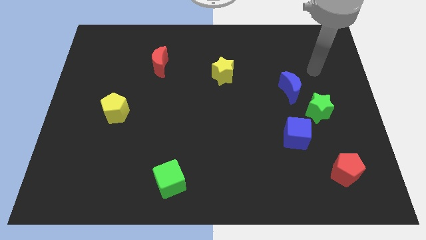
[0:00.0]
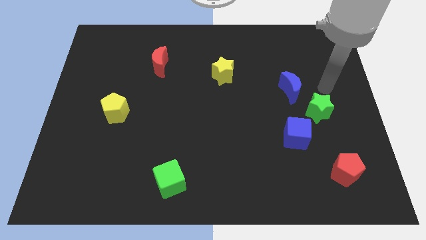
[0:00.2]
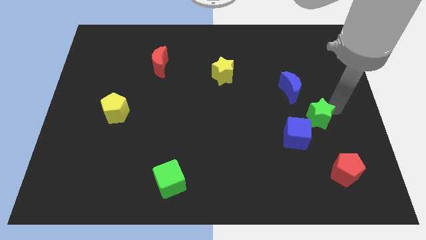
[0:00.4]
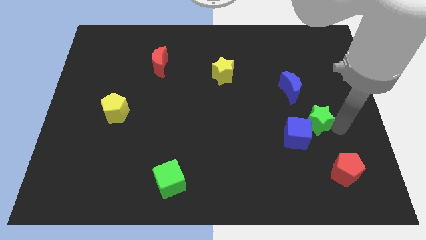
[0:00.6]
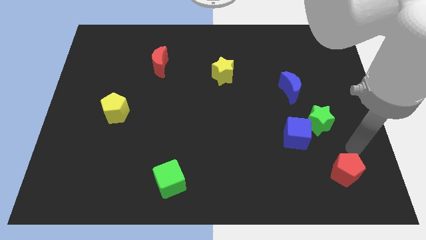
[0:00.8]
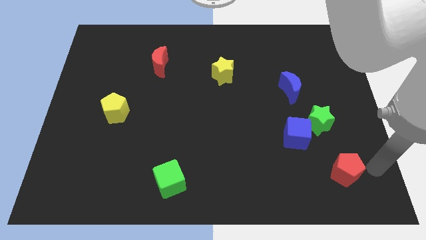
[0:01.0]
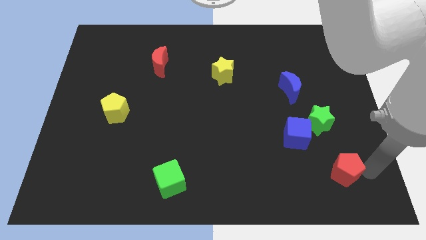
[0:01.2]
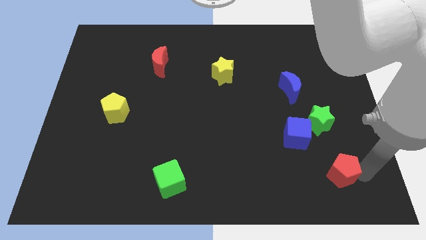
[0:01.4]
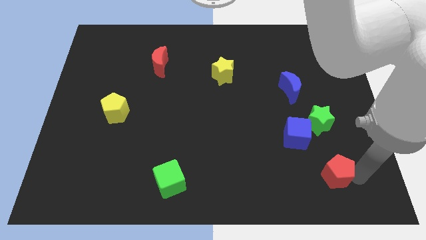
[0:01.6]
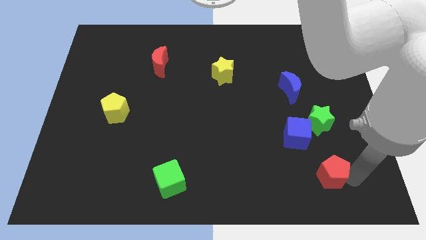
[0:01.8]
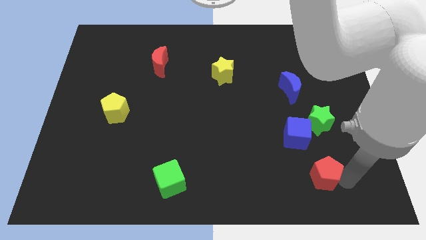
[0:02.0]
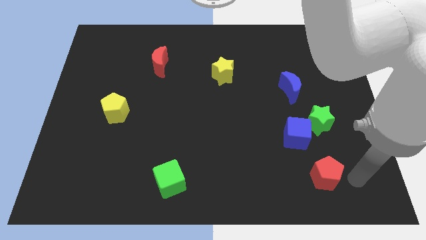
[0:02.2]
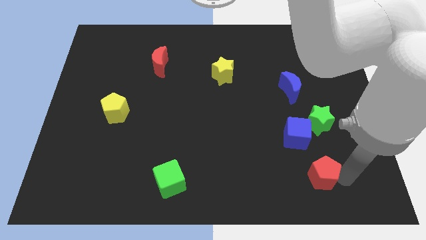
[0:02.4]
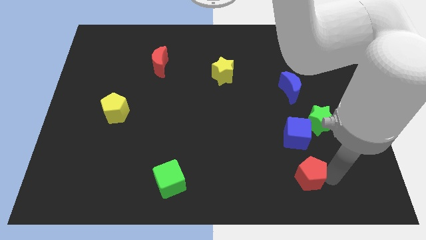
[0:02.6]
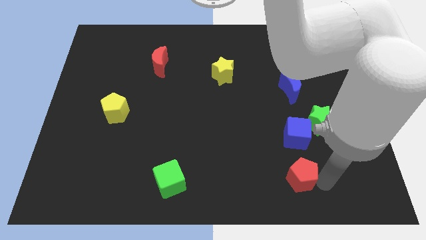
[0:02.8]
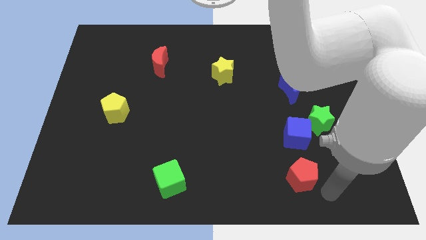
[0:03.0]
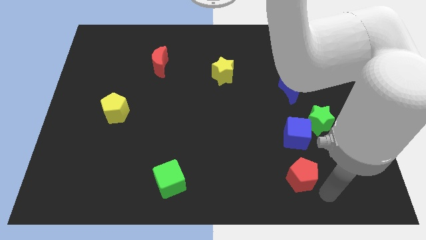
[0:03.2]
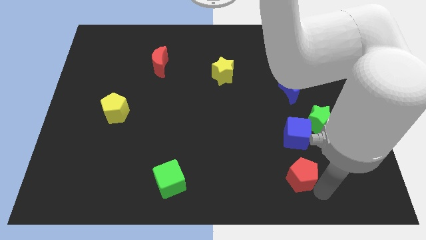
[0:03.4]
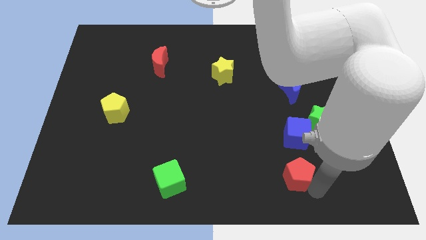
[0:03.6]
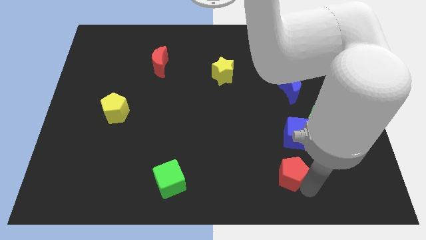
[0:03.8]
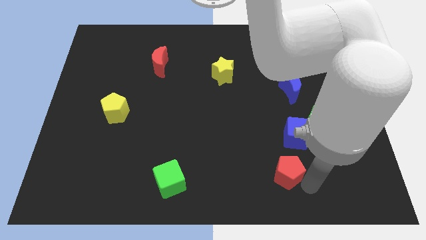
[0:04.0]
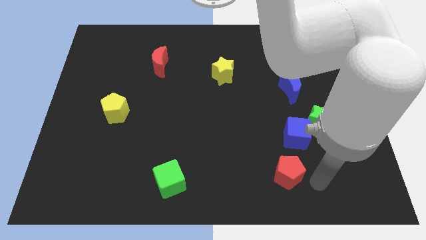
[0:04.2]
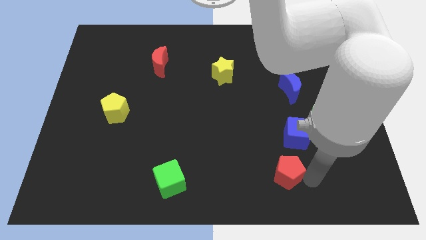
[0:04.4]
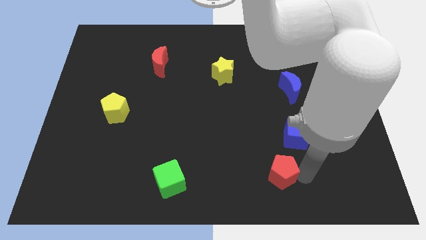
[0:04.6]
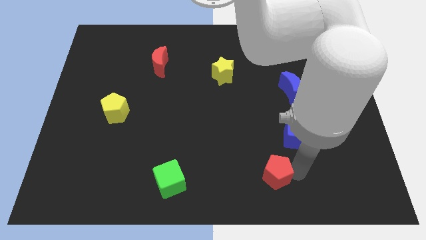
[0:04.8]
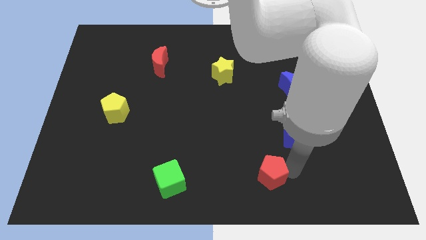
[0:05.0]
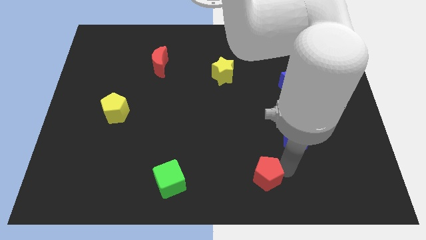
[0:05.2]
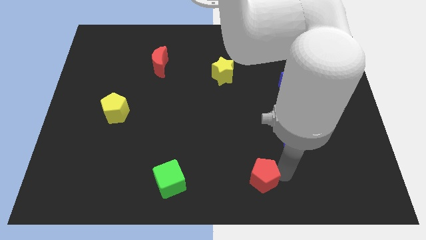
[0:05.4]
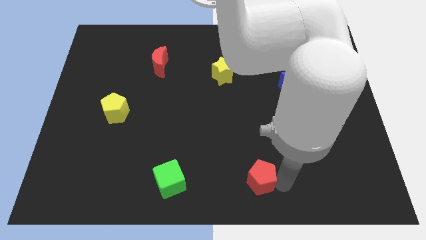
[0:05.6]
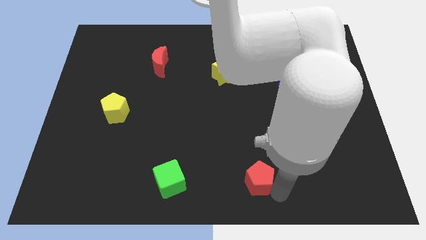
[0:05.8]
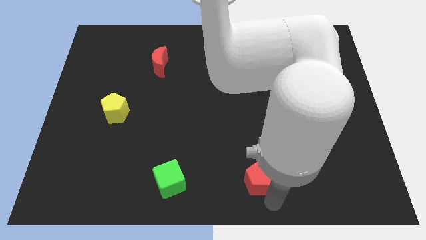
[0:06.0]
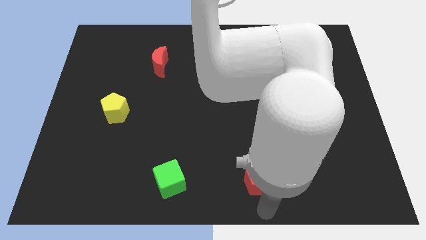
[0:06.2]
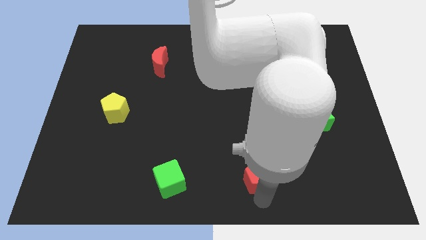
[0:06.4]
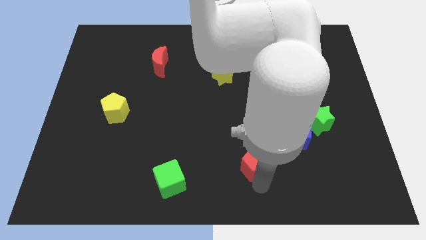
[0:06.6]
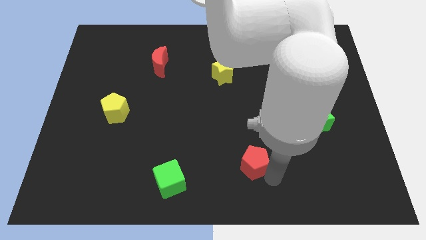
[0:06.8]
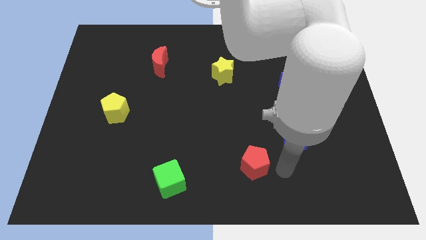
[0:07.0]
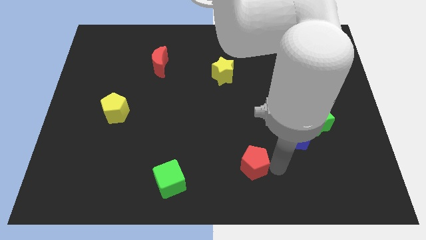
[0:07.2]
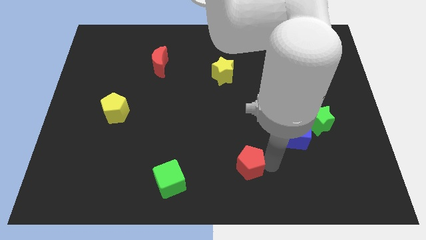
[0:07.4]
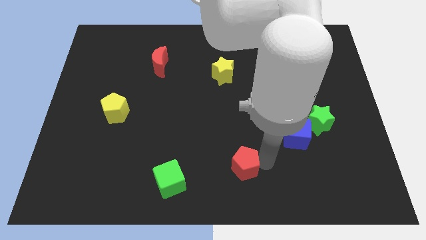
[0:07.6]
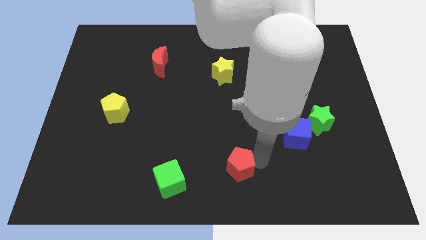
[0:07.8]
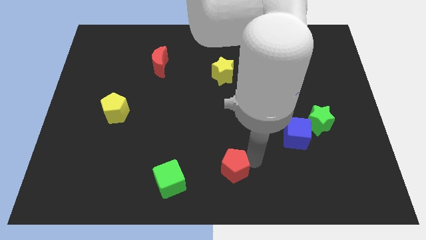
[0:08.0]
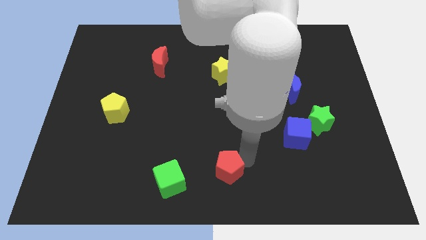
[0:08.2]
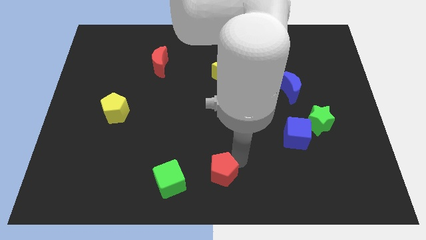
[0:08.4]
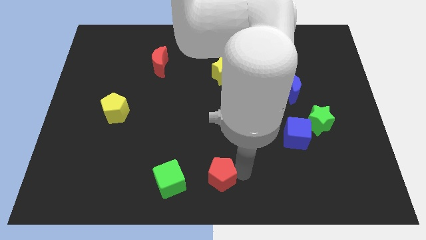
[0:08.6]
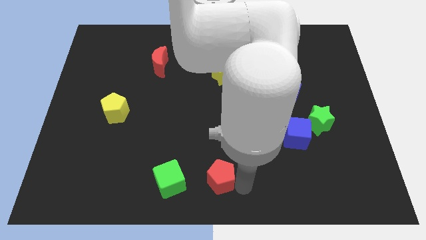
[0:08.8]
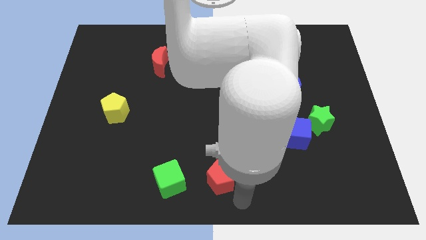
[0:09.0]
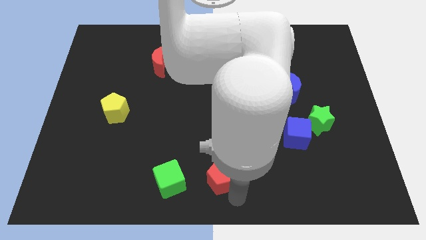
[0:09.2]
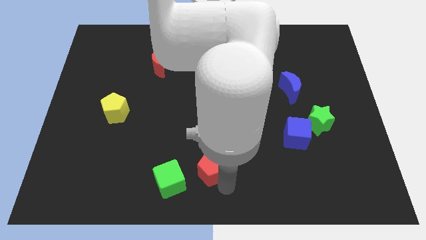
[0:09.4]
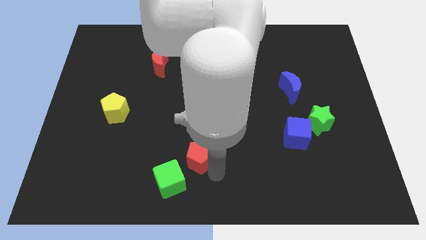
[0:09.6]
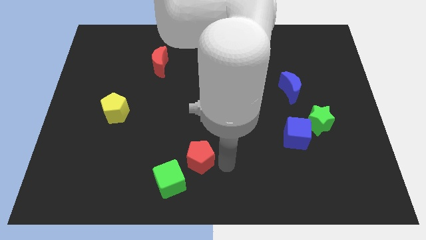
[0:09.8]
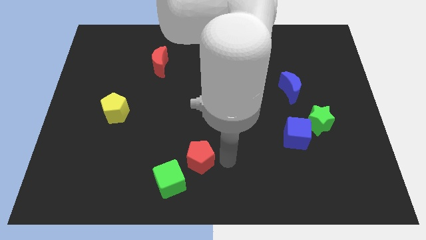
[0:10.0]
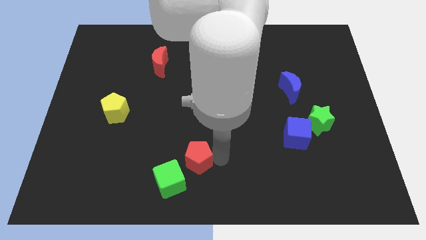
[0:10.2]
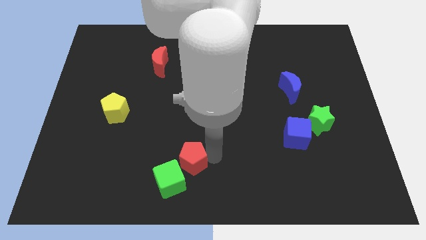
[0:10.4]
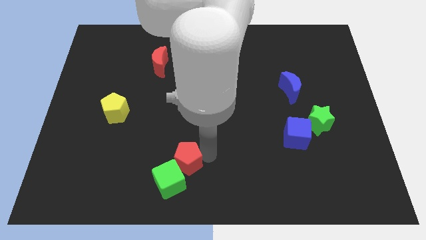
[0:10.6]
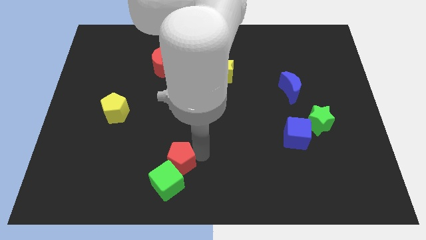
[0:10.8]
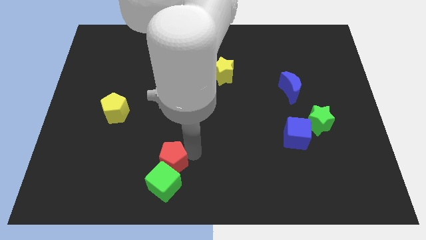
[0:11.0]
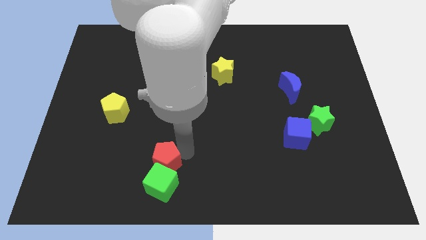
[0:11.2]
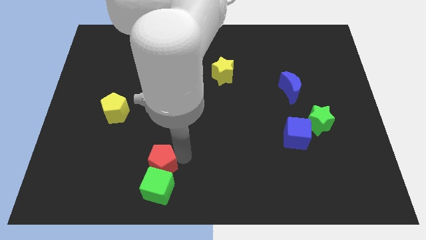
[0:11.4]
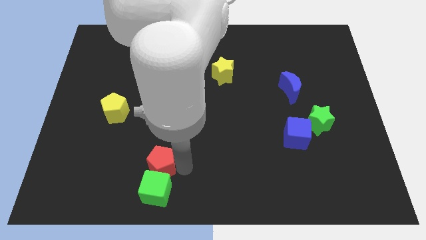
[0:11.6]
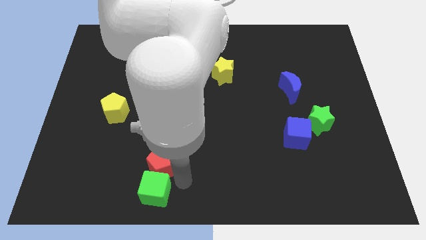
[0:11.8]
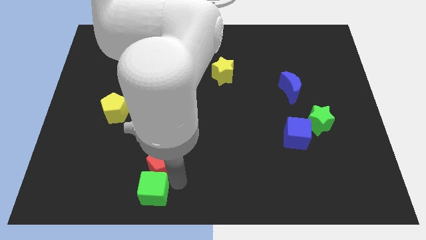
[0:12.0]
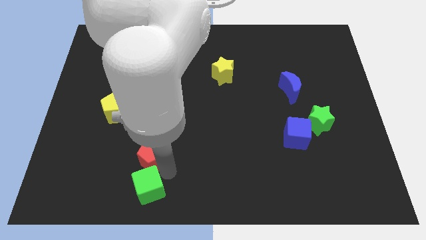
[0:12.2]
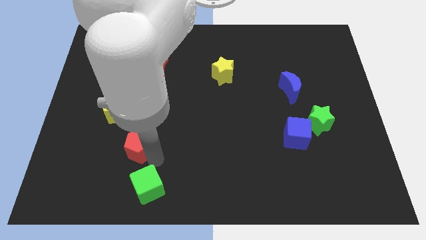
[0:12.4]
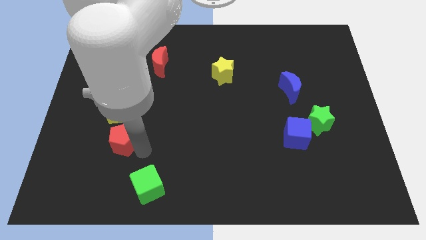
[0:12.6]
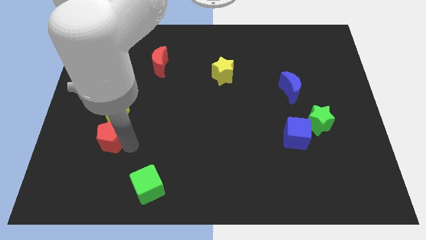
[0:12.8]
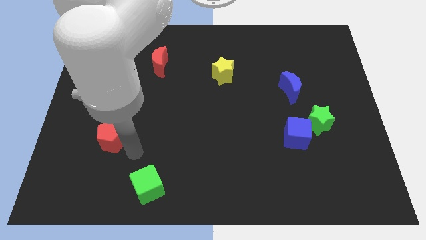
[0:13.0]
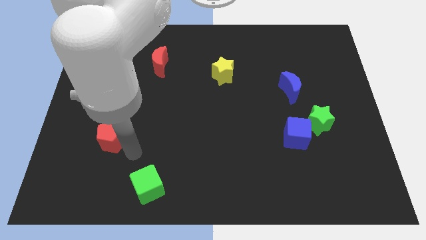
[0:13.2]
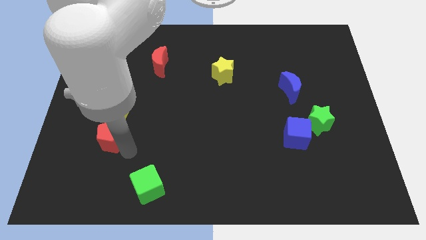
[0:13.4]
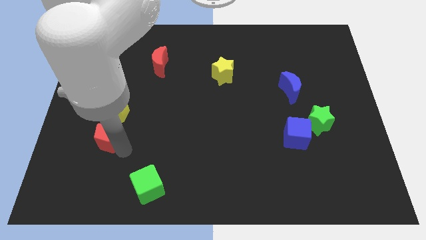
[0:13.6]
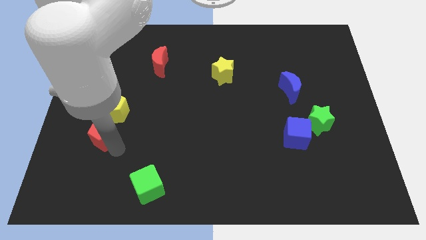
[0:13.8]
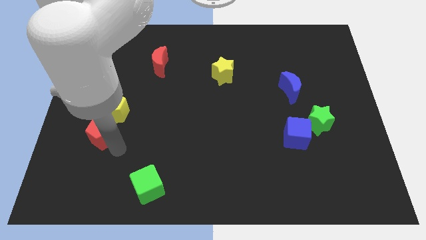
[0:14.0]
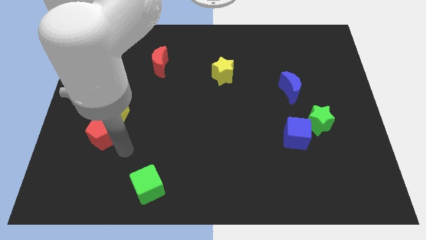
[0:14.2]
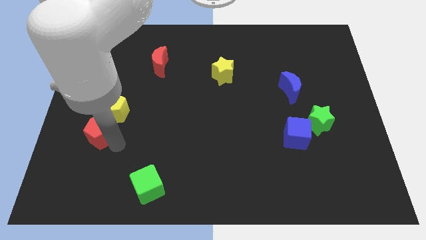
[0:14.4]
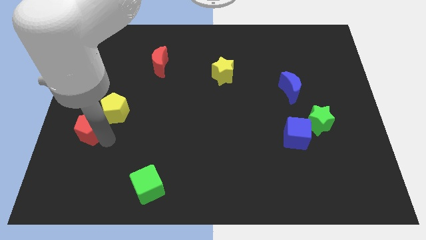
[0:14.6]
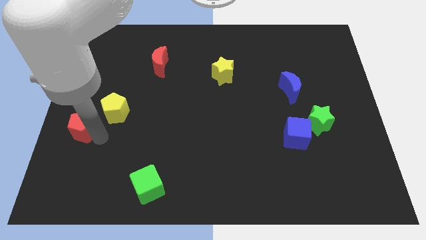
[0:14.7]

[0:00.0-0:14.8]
put the red pentagon to the left side
